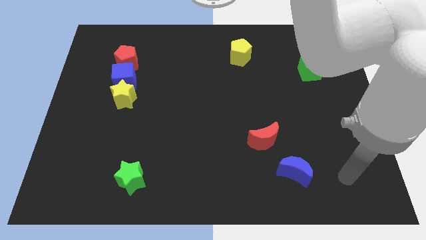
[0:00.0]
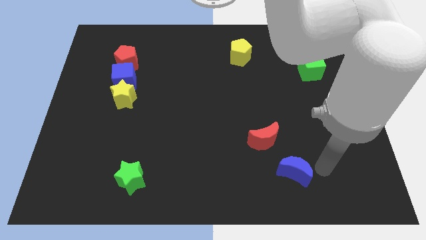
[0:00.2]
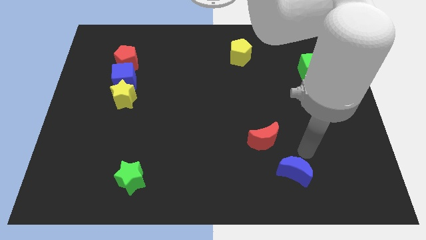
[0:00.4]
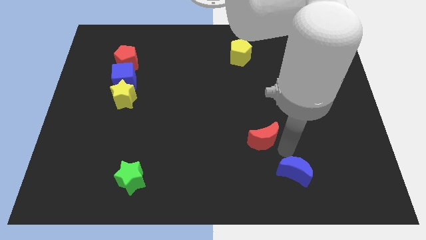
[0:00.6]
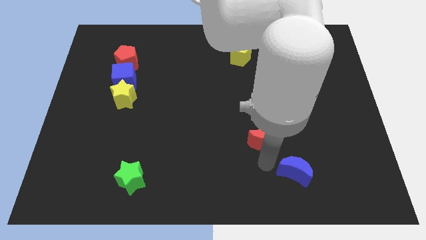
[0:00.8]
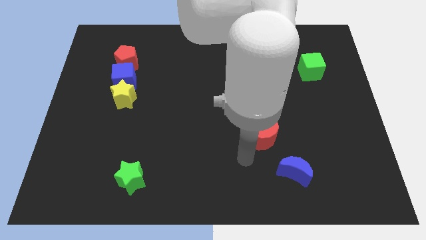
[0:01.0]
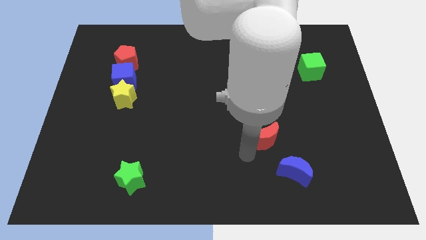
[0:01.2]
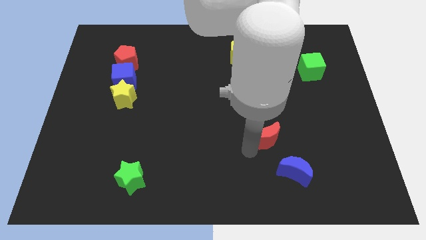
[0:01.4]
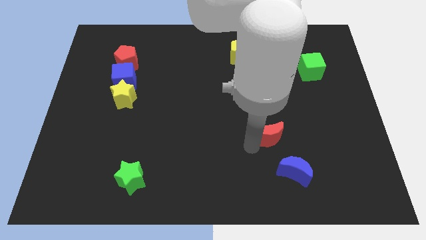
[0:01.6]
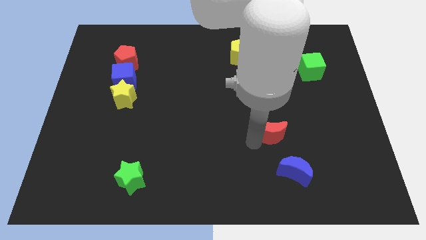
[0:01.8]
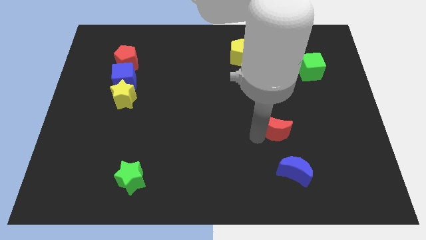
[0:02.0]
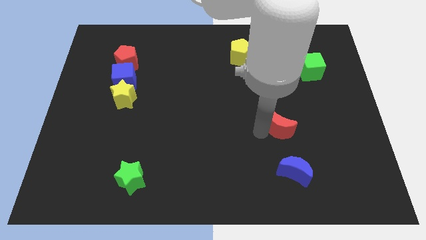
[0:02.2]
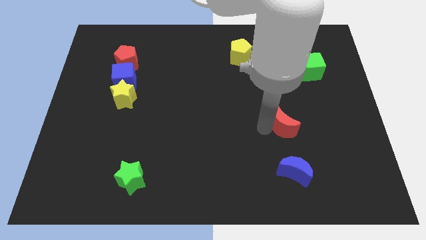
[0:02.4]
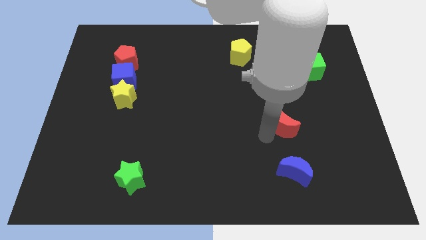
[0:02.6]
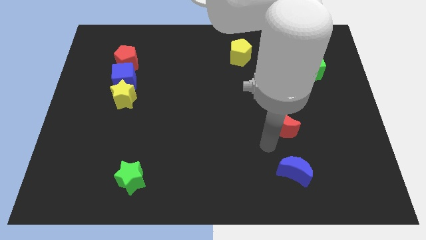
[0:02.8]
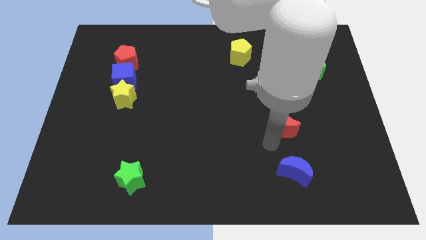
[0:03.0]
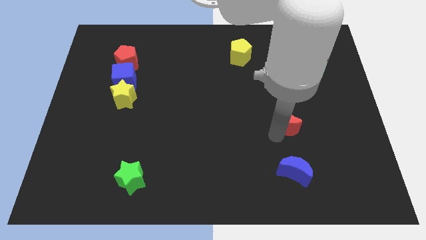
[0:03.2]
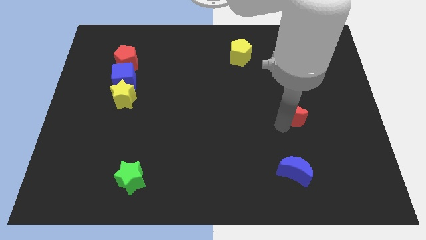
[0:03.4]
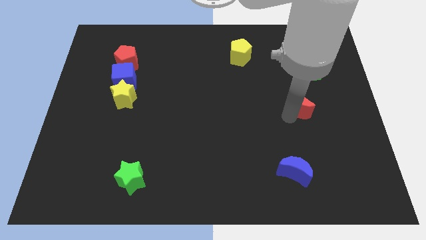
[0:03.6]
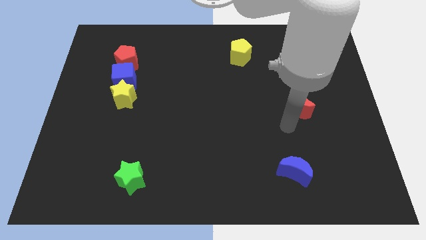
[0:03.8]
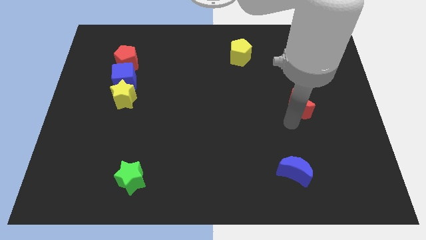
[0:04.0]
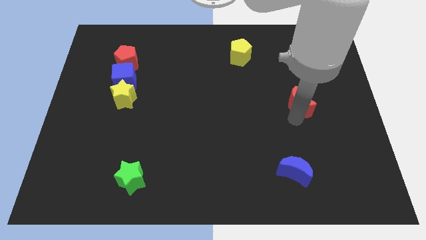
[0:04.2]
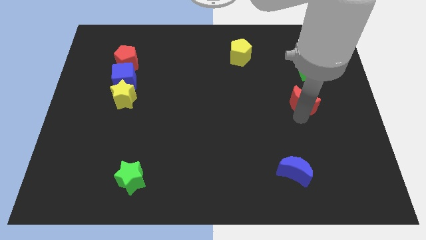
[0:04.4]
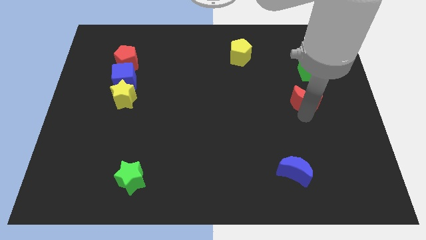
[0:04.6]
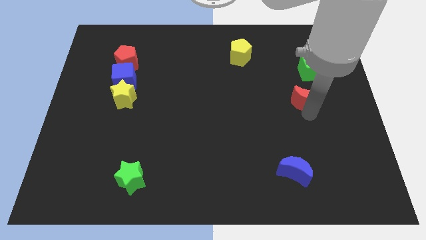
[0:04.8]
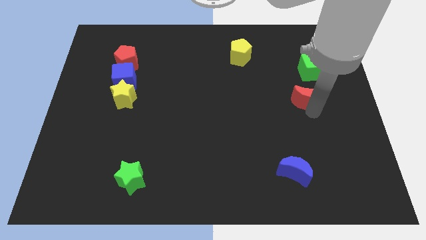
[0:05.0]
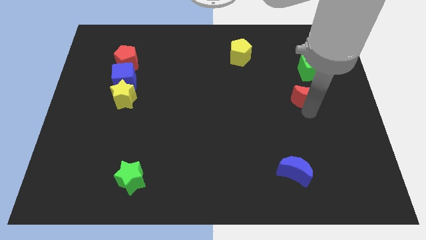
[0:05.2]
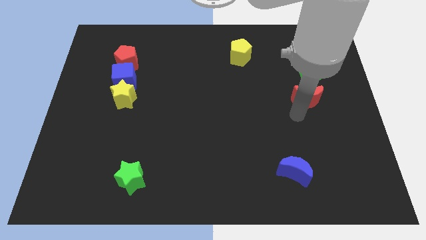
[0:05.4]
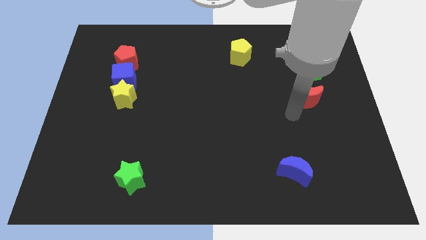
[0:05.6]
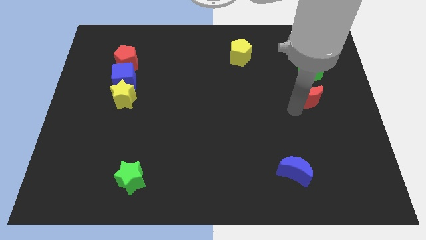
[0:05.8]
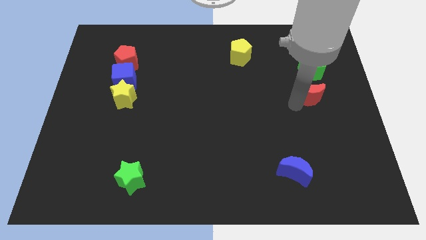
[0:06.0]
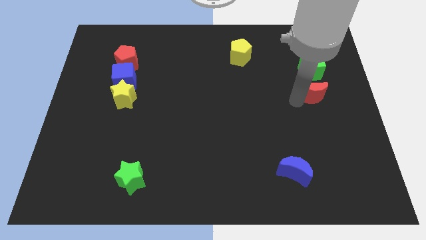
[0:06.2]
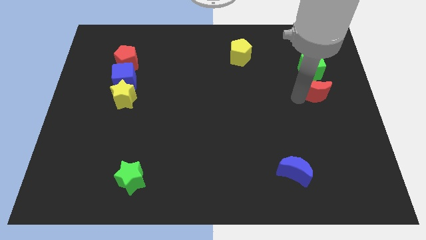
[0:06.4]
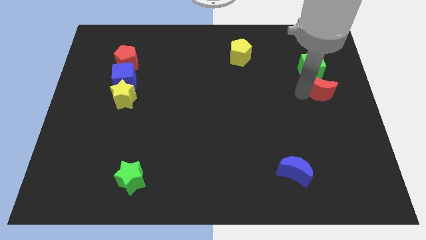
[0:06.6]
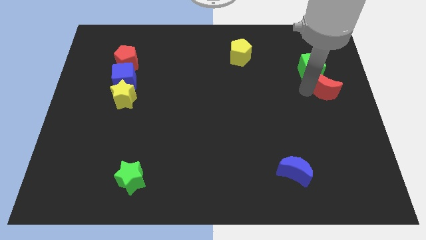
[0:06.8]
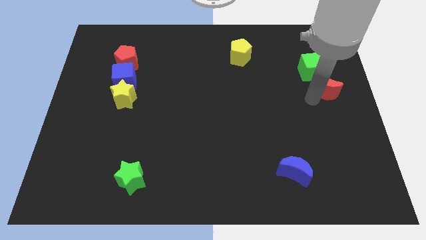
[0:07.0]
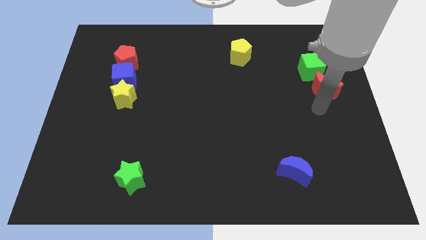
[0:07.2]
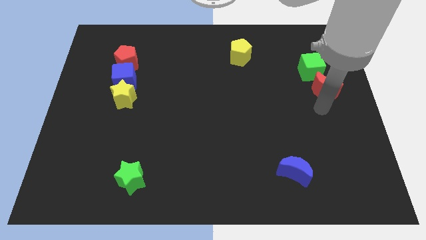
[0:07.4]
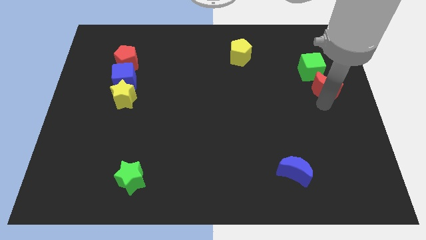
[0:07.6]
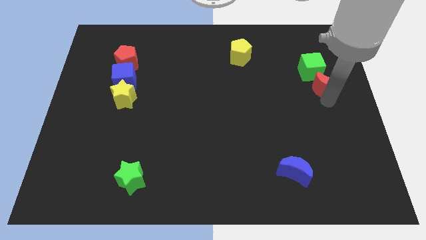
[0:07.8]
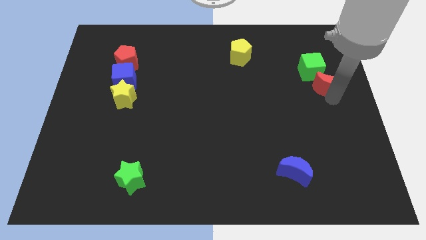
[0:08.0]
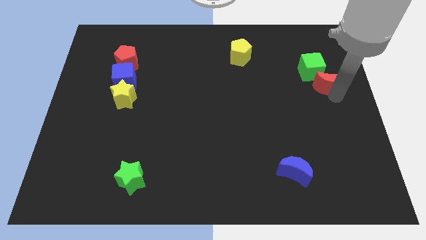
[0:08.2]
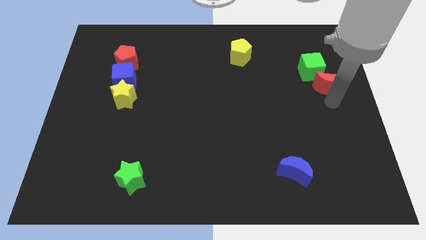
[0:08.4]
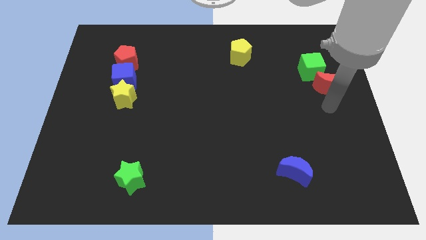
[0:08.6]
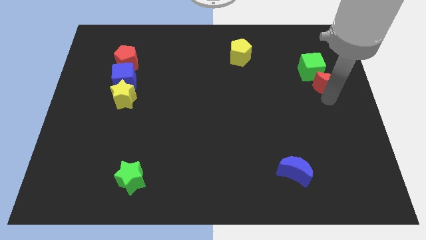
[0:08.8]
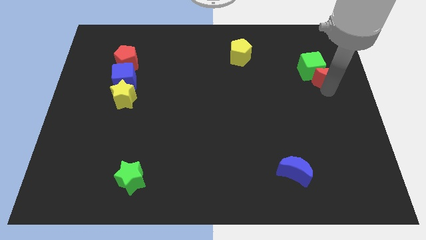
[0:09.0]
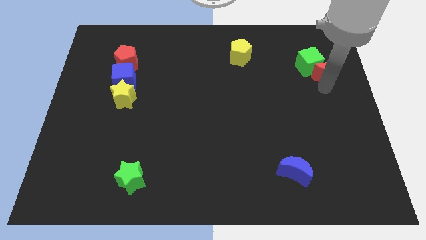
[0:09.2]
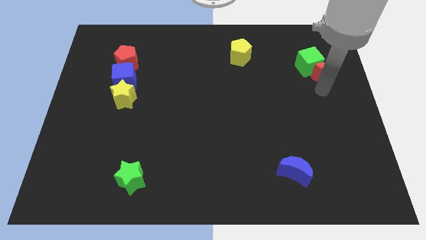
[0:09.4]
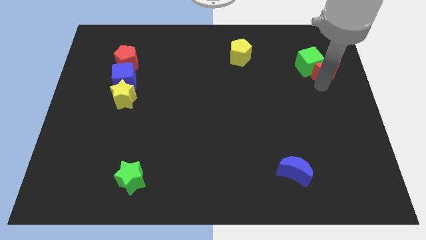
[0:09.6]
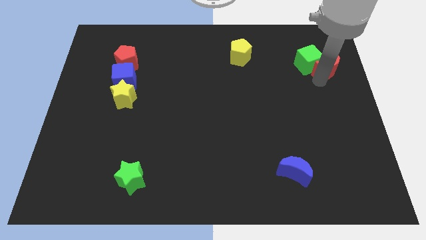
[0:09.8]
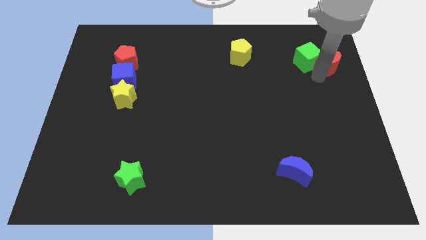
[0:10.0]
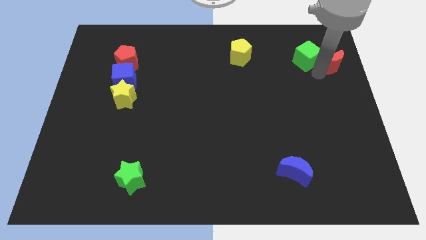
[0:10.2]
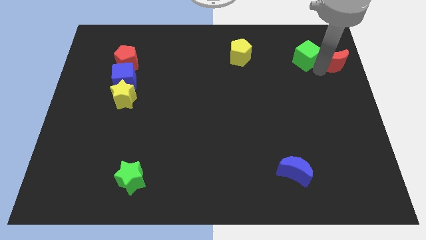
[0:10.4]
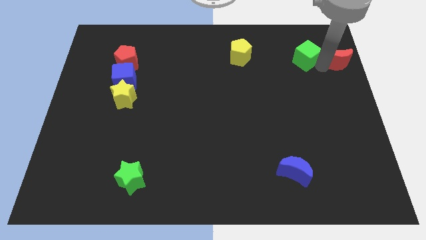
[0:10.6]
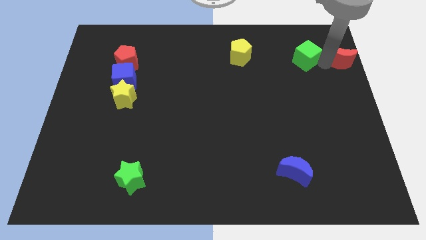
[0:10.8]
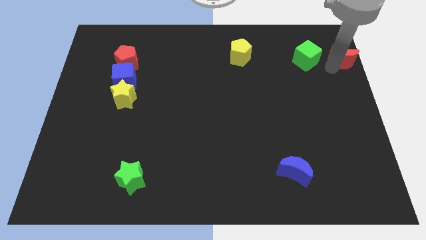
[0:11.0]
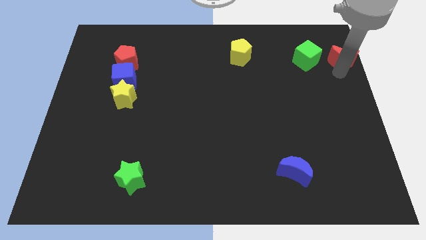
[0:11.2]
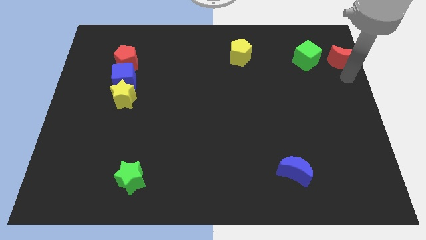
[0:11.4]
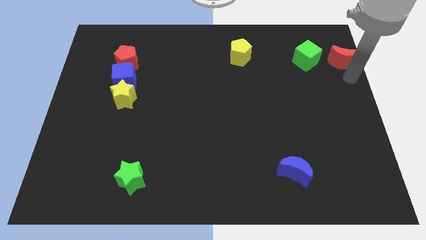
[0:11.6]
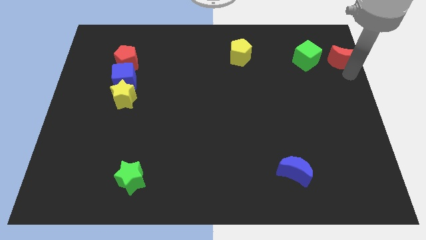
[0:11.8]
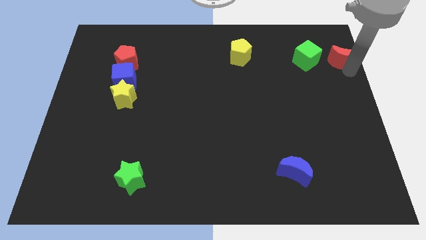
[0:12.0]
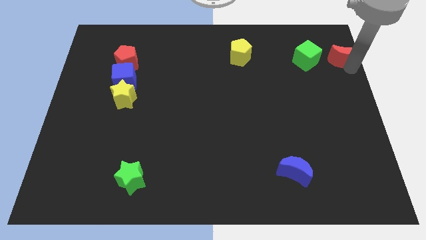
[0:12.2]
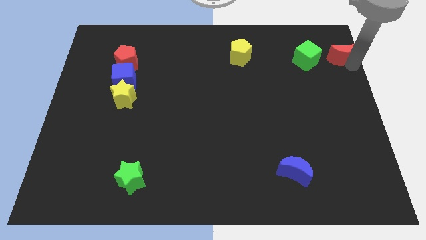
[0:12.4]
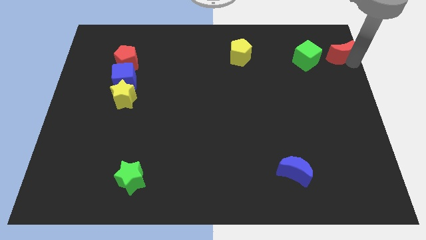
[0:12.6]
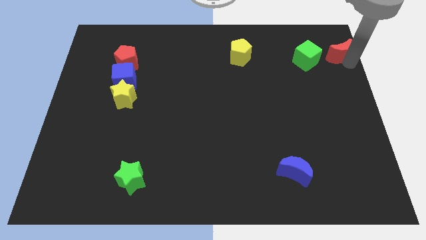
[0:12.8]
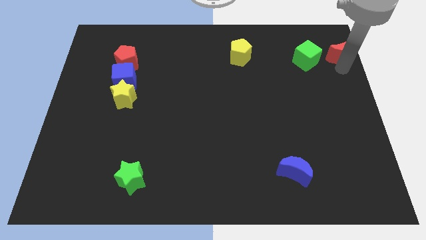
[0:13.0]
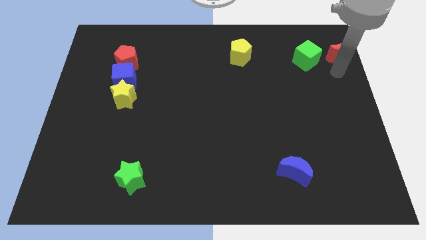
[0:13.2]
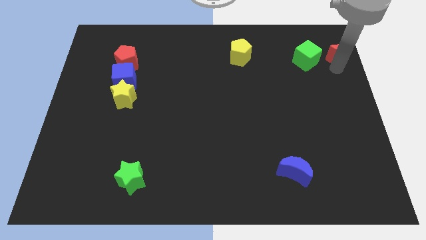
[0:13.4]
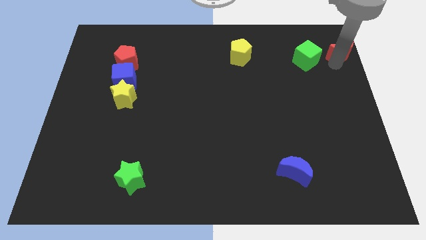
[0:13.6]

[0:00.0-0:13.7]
slide the red moon to the top right
